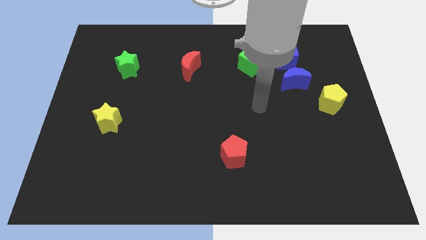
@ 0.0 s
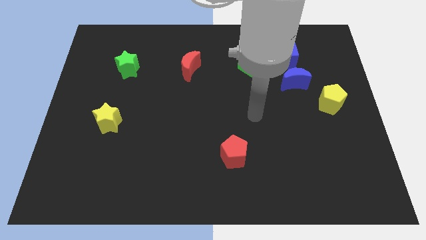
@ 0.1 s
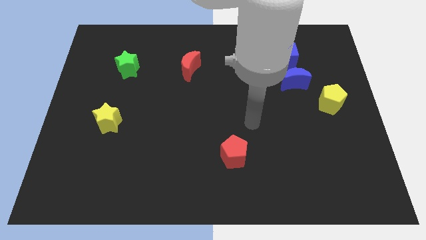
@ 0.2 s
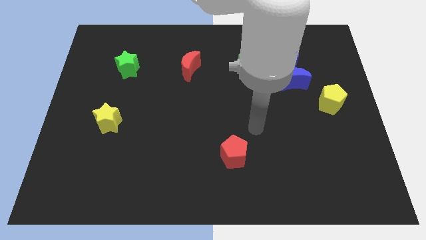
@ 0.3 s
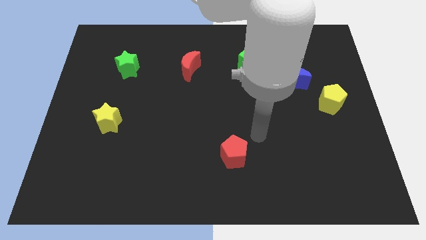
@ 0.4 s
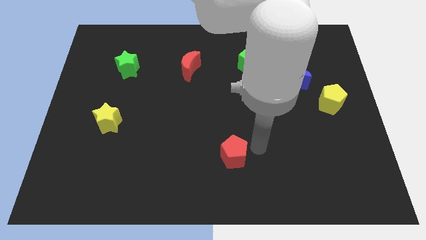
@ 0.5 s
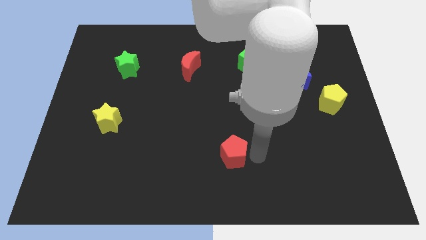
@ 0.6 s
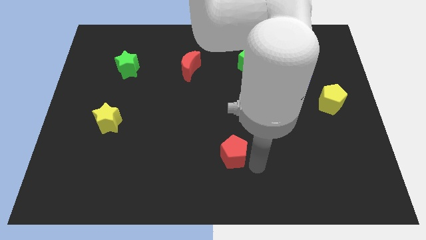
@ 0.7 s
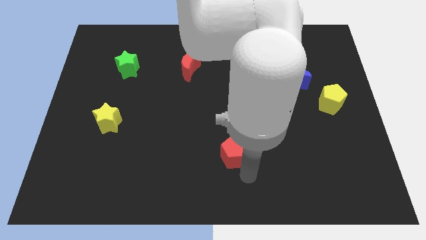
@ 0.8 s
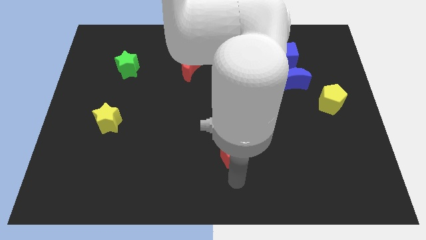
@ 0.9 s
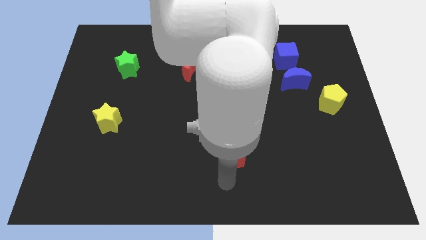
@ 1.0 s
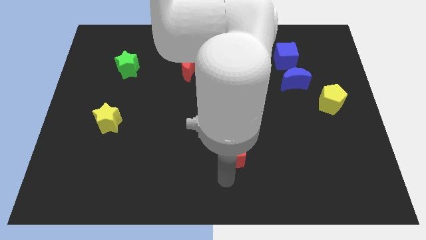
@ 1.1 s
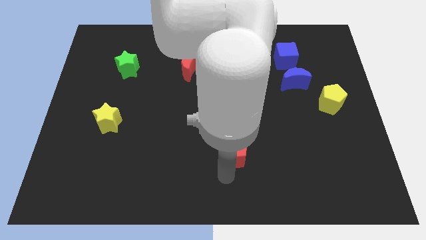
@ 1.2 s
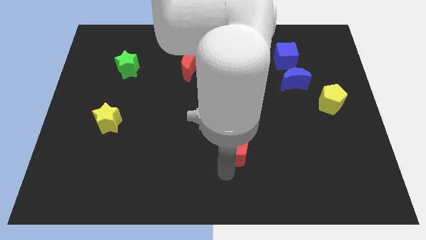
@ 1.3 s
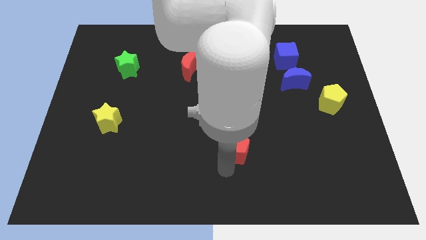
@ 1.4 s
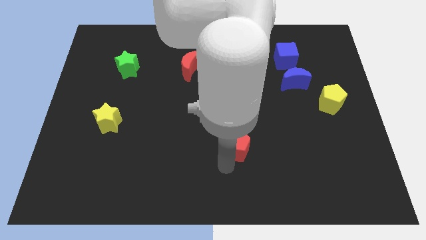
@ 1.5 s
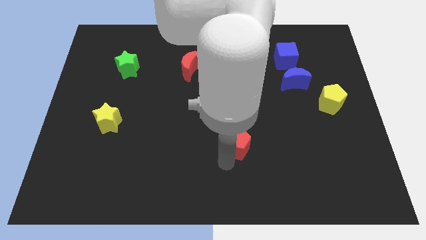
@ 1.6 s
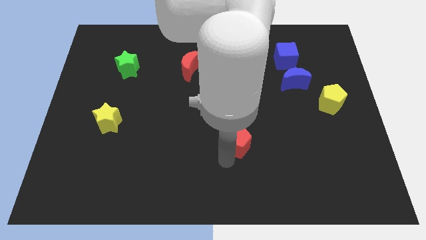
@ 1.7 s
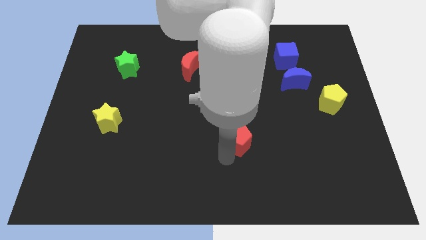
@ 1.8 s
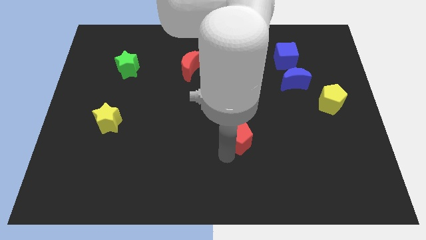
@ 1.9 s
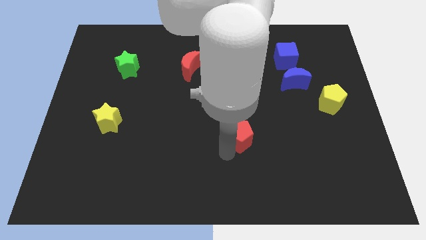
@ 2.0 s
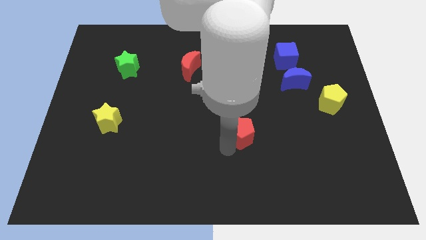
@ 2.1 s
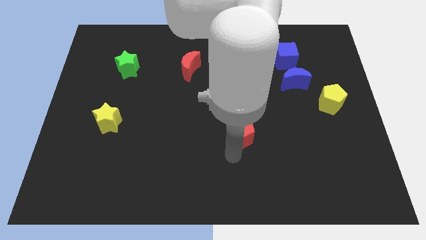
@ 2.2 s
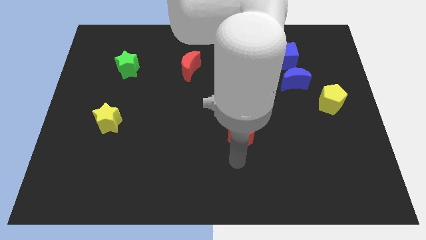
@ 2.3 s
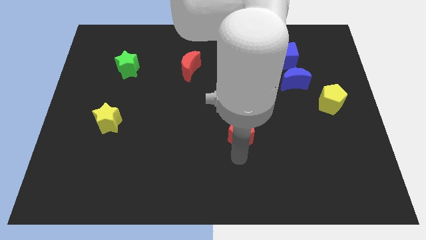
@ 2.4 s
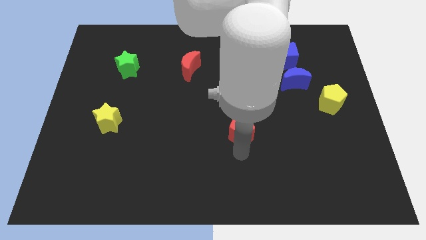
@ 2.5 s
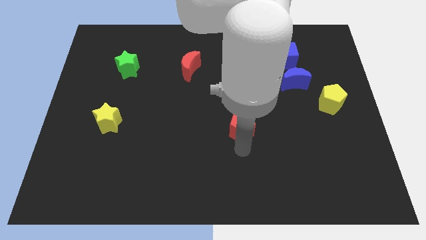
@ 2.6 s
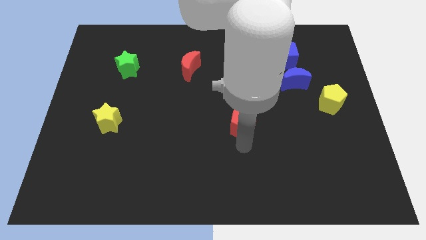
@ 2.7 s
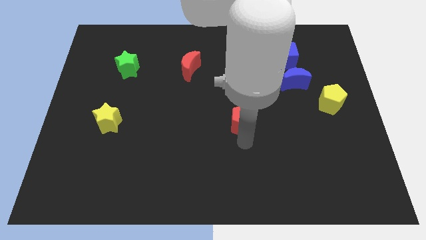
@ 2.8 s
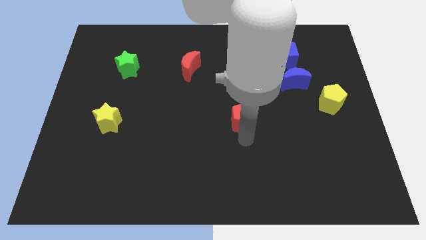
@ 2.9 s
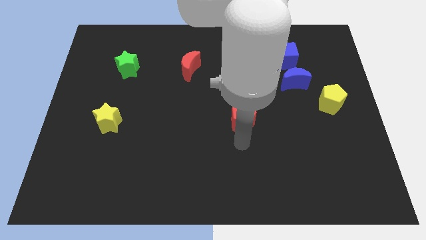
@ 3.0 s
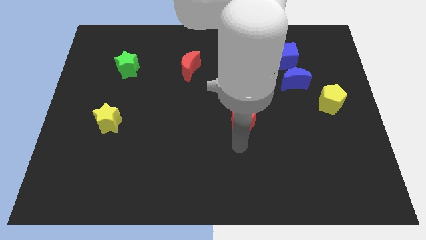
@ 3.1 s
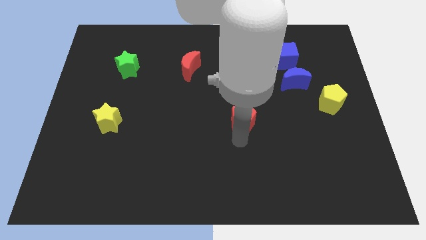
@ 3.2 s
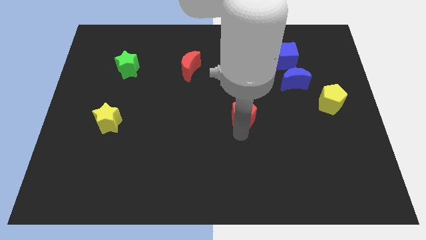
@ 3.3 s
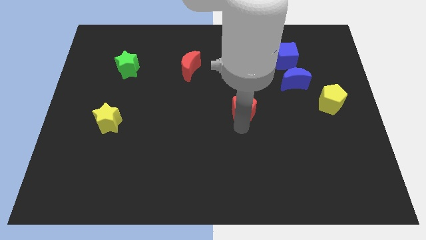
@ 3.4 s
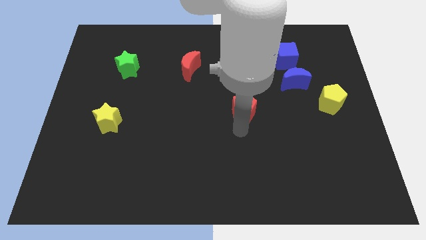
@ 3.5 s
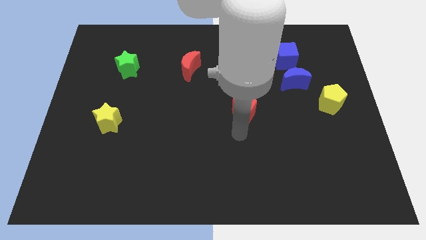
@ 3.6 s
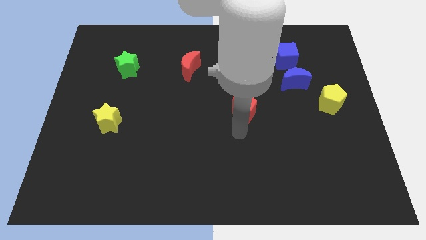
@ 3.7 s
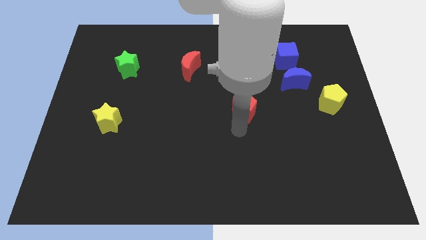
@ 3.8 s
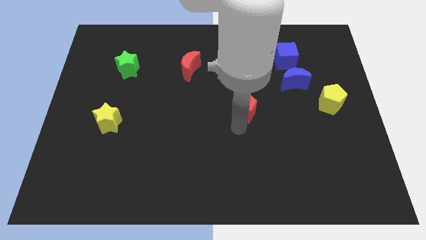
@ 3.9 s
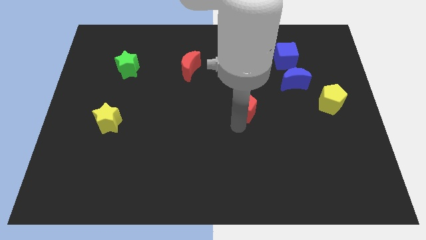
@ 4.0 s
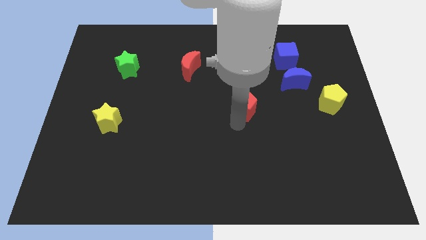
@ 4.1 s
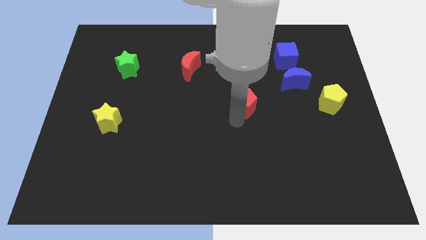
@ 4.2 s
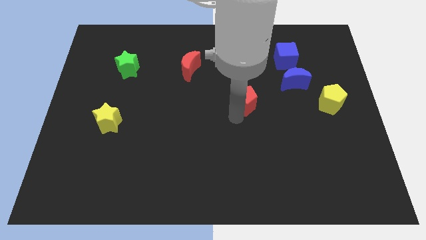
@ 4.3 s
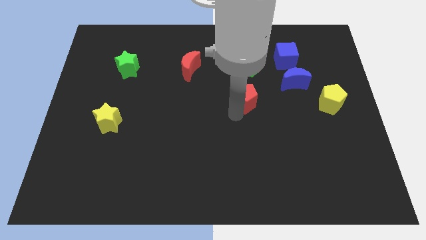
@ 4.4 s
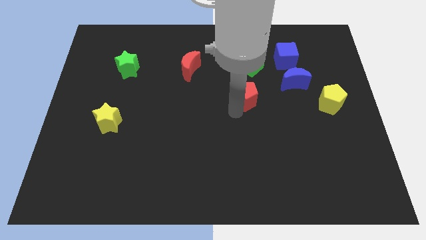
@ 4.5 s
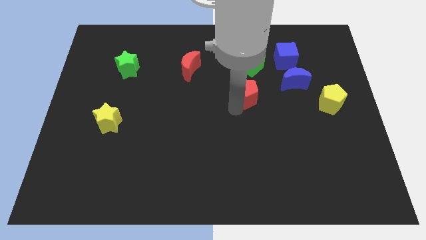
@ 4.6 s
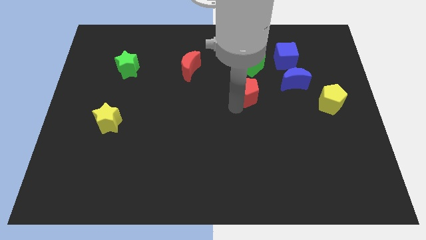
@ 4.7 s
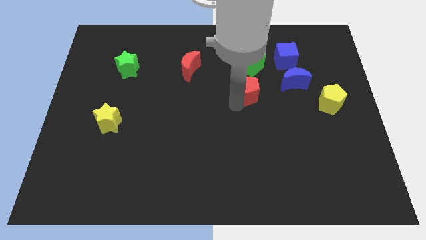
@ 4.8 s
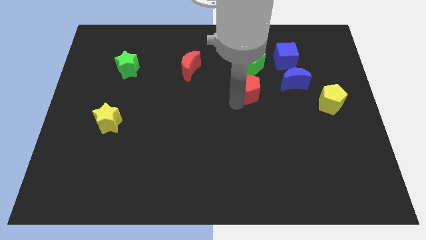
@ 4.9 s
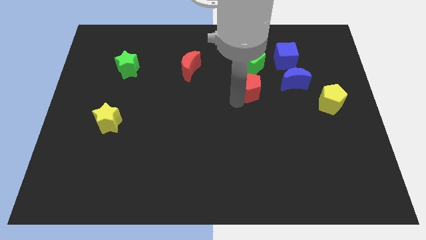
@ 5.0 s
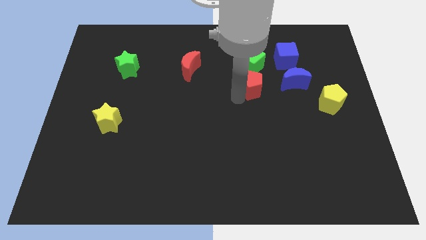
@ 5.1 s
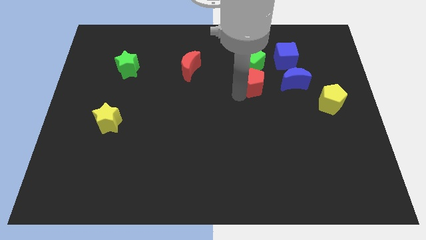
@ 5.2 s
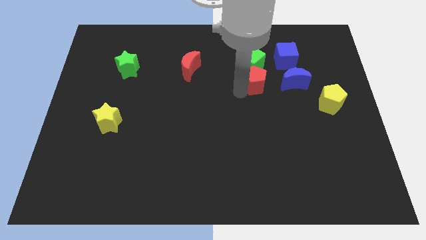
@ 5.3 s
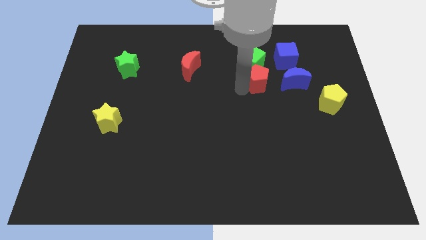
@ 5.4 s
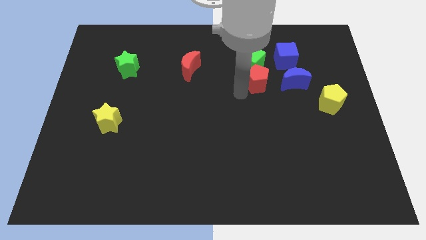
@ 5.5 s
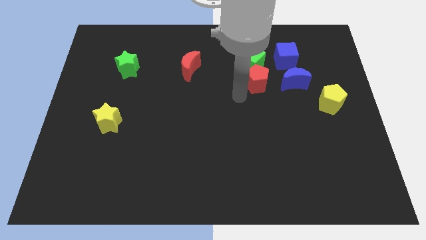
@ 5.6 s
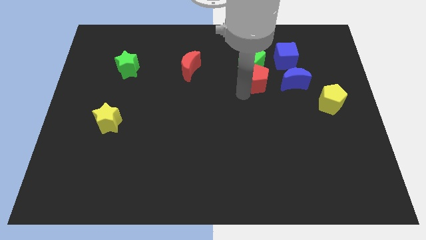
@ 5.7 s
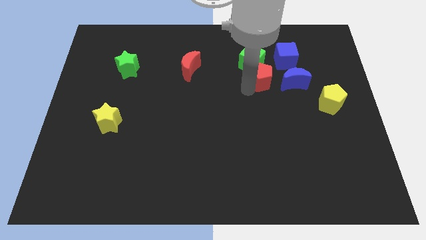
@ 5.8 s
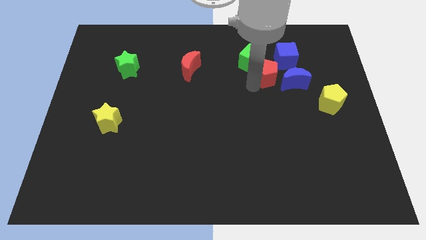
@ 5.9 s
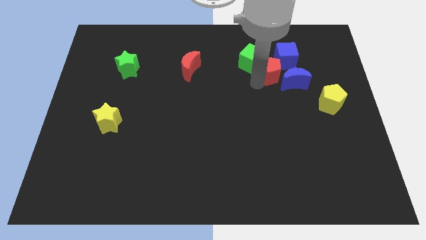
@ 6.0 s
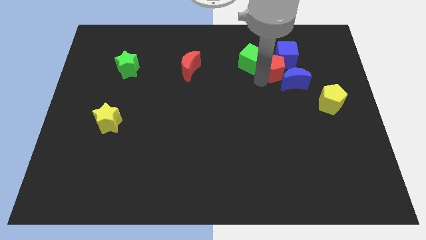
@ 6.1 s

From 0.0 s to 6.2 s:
move the red pentagon next to the blue cube

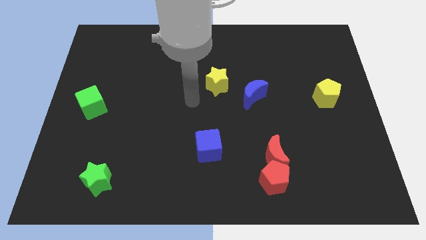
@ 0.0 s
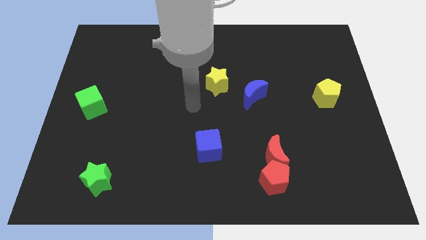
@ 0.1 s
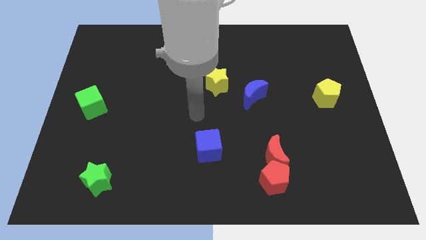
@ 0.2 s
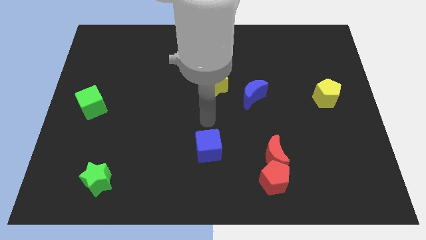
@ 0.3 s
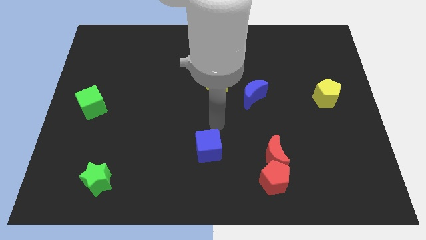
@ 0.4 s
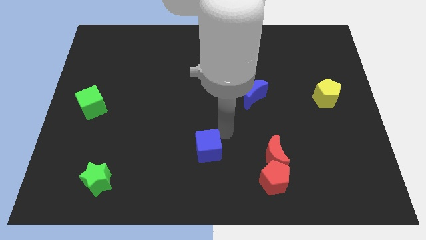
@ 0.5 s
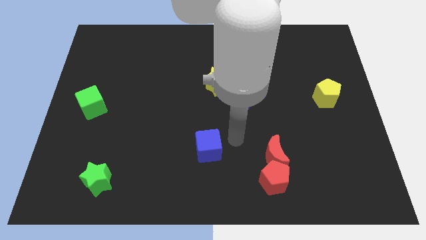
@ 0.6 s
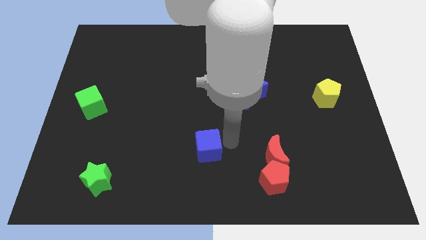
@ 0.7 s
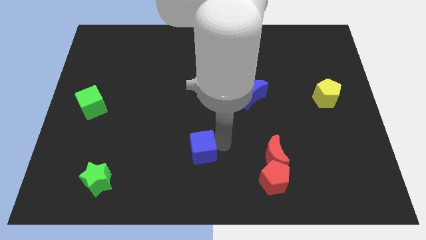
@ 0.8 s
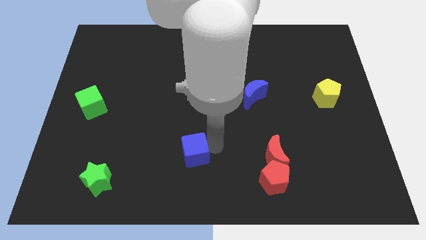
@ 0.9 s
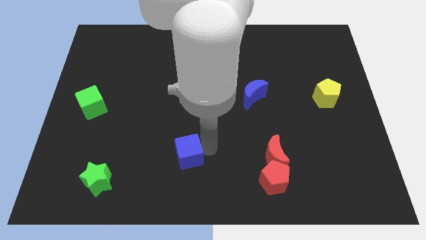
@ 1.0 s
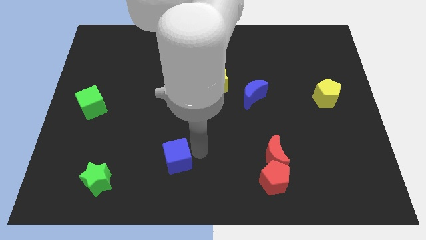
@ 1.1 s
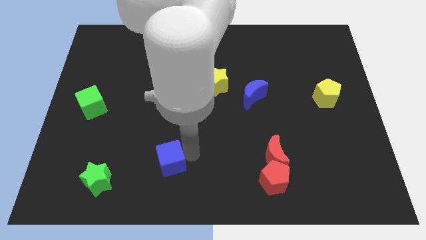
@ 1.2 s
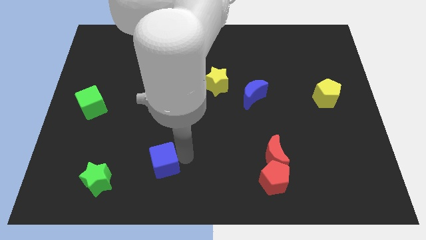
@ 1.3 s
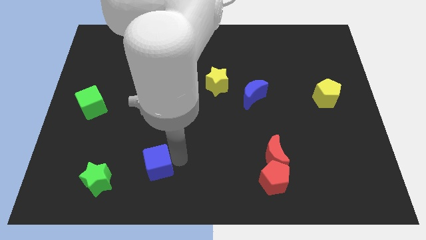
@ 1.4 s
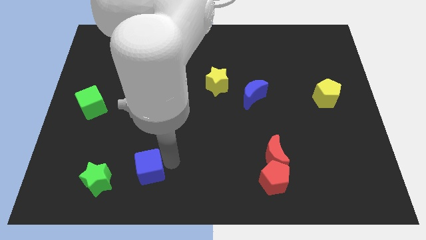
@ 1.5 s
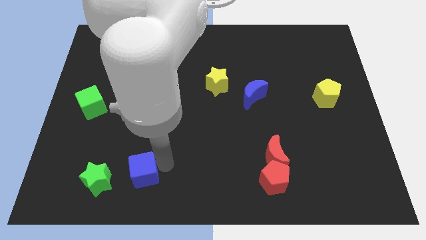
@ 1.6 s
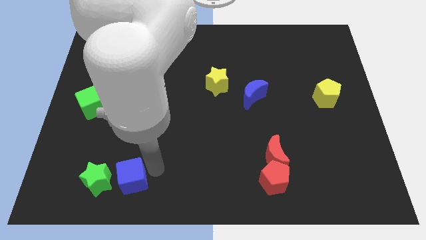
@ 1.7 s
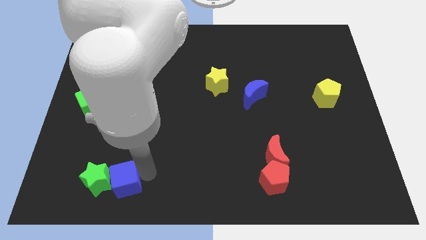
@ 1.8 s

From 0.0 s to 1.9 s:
put the blue cube towards the green star
